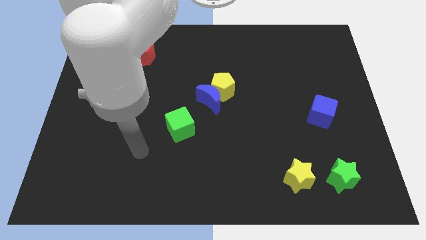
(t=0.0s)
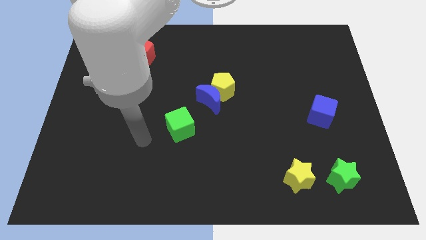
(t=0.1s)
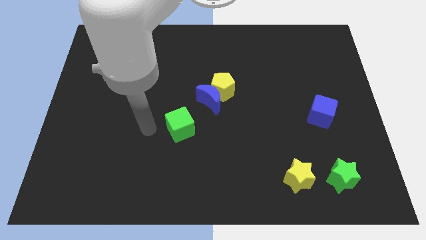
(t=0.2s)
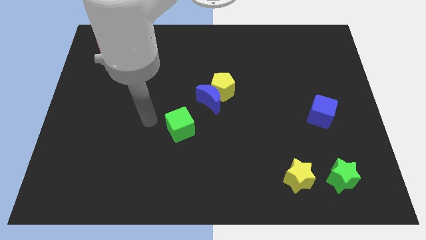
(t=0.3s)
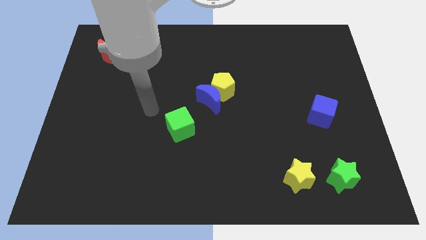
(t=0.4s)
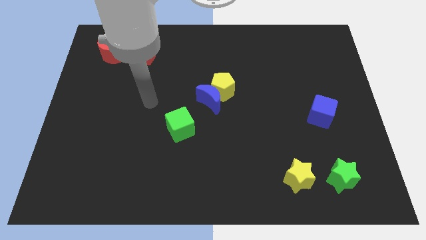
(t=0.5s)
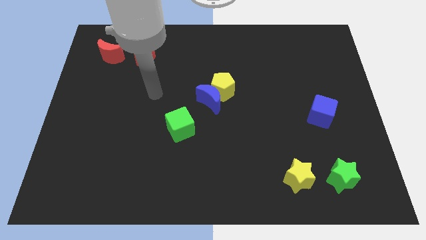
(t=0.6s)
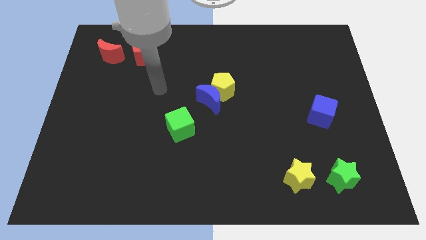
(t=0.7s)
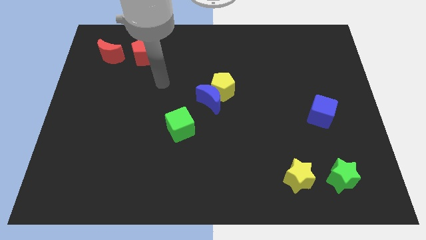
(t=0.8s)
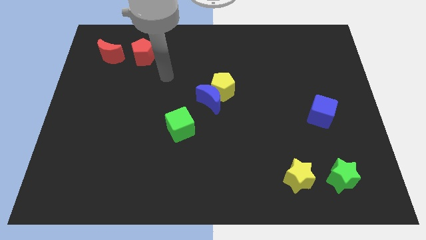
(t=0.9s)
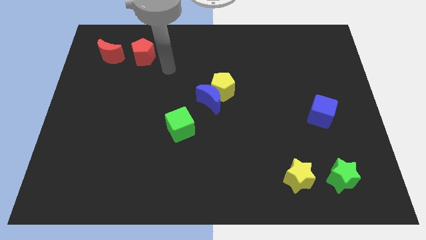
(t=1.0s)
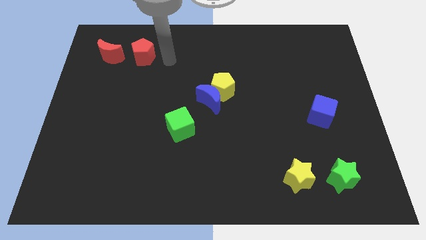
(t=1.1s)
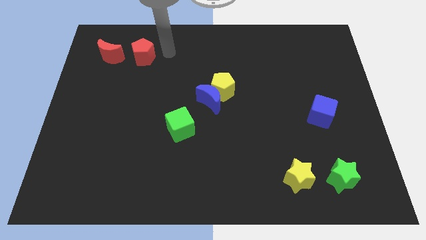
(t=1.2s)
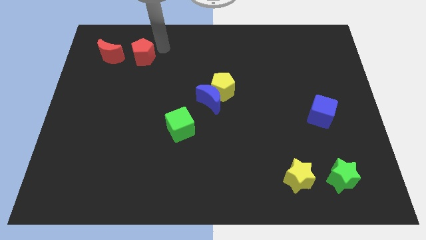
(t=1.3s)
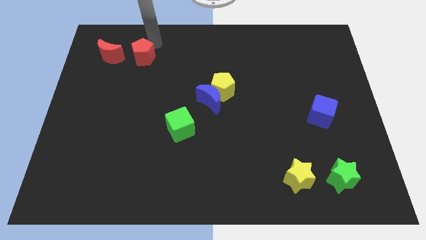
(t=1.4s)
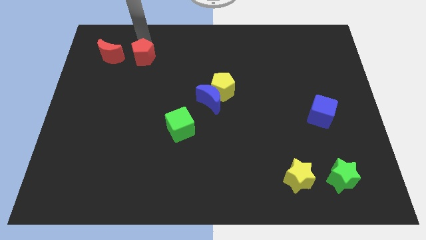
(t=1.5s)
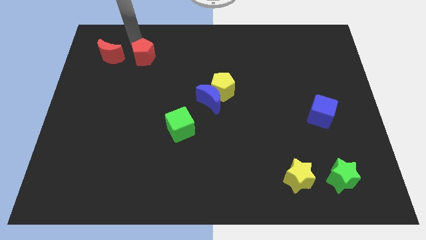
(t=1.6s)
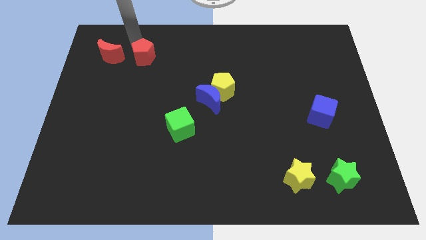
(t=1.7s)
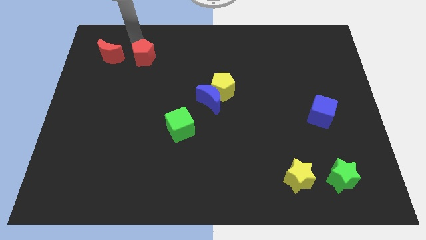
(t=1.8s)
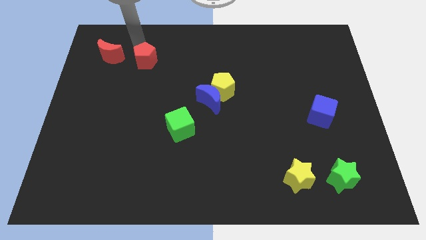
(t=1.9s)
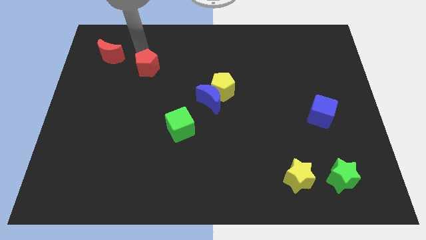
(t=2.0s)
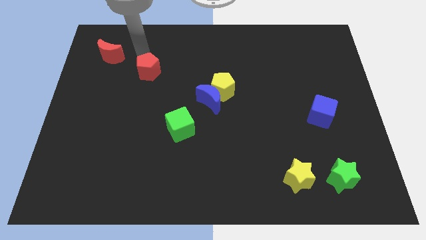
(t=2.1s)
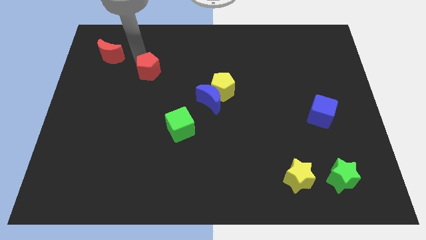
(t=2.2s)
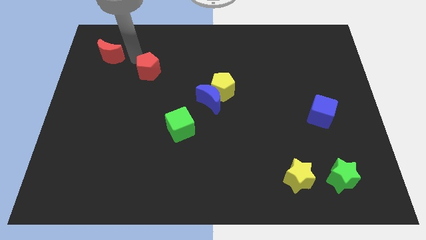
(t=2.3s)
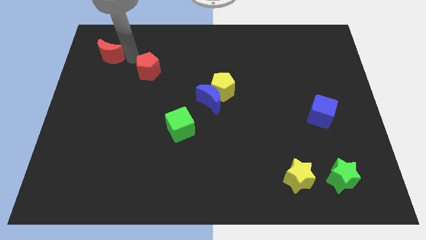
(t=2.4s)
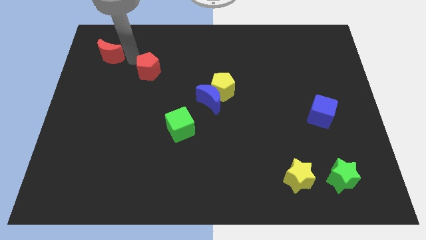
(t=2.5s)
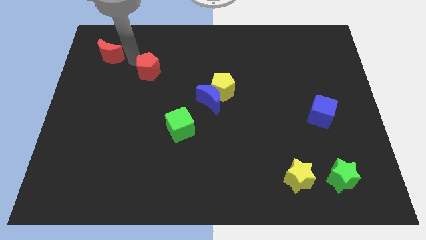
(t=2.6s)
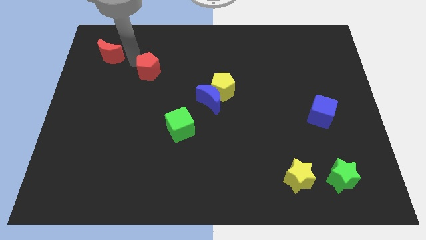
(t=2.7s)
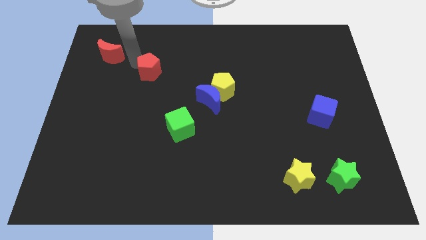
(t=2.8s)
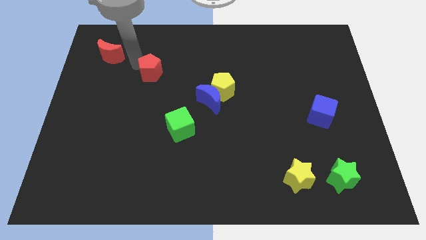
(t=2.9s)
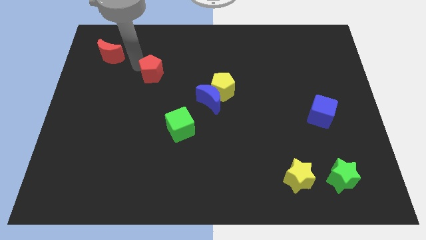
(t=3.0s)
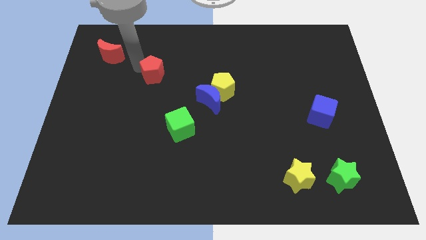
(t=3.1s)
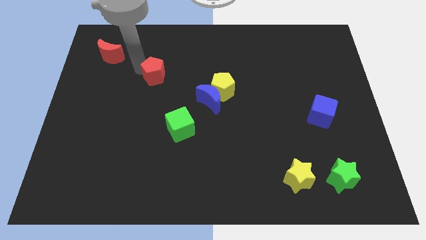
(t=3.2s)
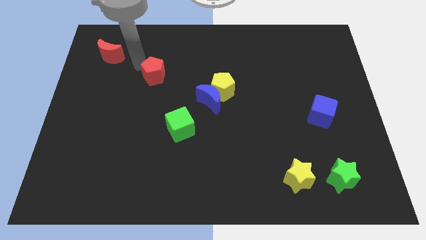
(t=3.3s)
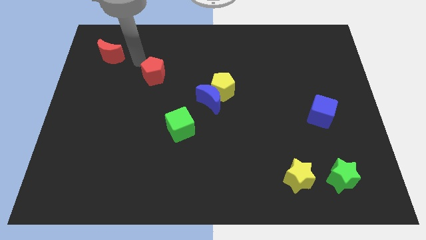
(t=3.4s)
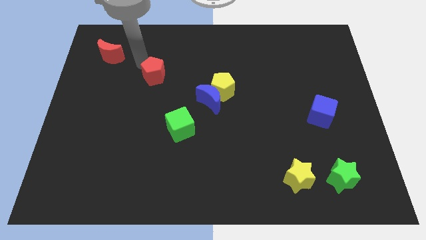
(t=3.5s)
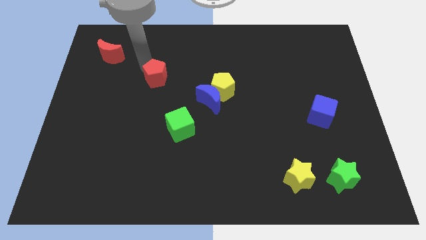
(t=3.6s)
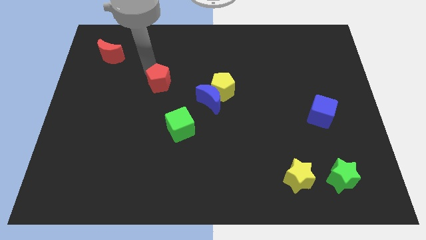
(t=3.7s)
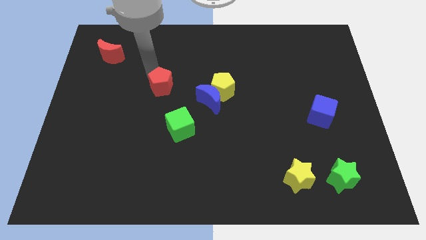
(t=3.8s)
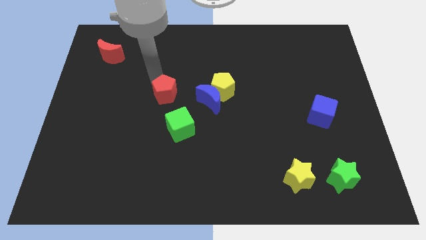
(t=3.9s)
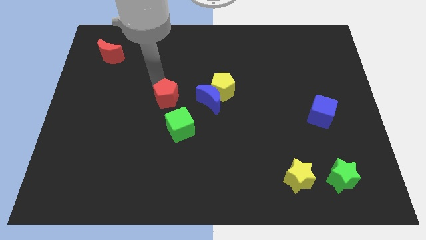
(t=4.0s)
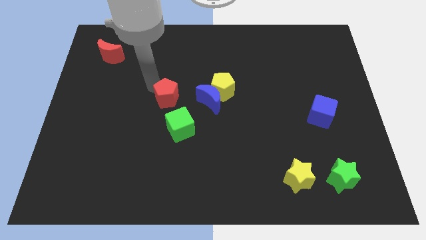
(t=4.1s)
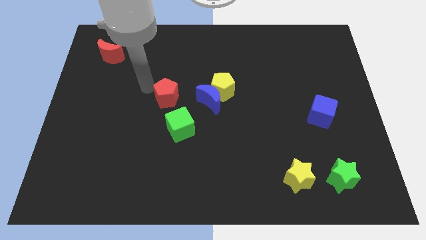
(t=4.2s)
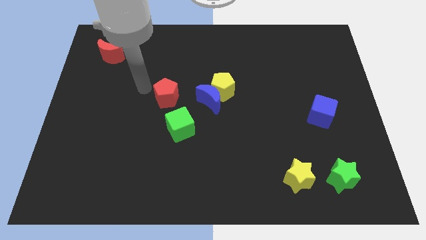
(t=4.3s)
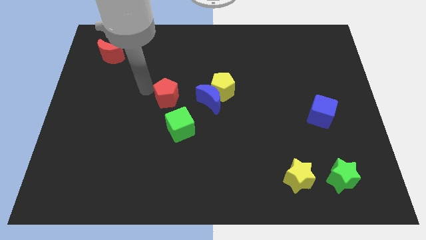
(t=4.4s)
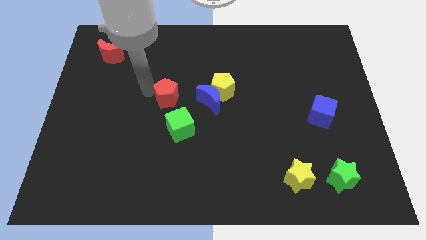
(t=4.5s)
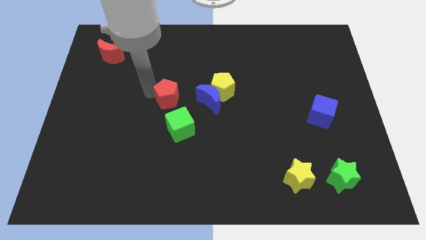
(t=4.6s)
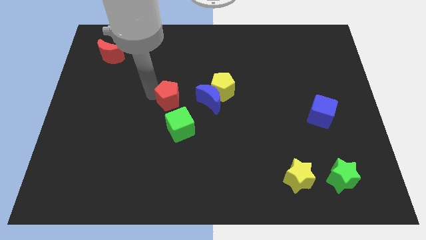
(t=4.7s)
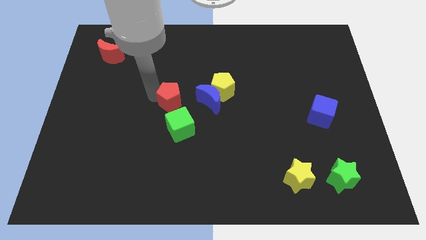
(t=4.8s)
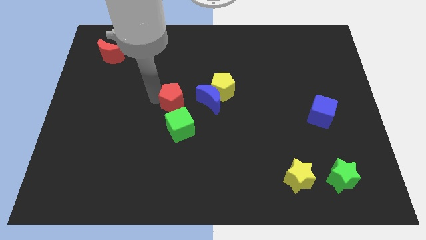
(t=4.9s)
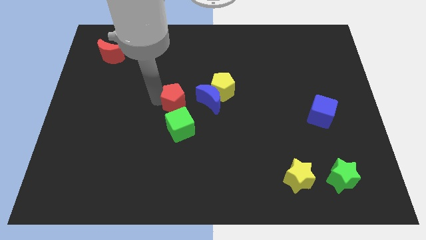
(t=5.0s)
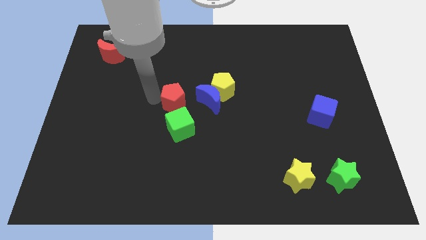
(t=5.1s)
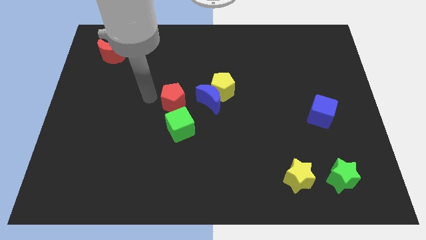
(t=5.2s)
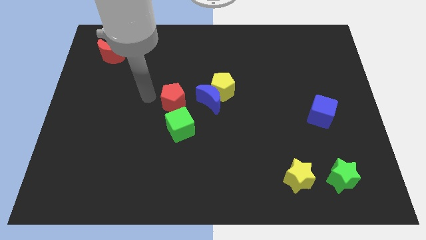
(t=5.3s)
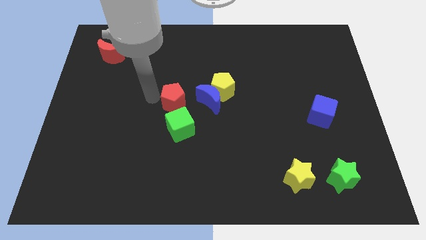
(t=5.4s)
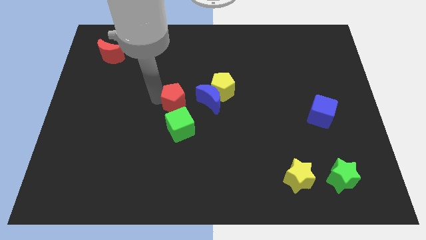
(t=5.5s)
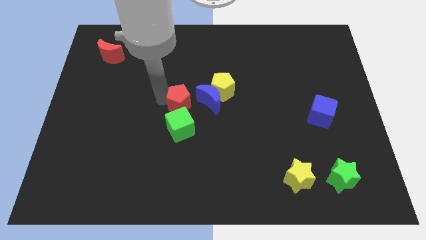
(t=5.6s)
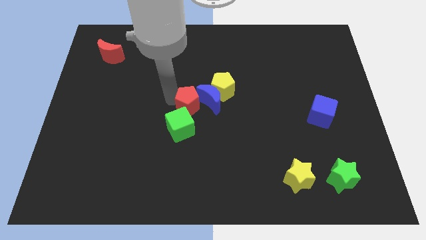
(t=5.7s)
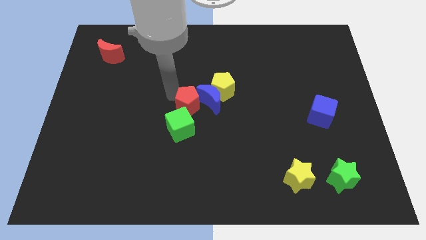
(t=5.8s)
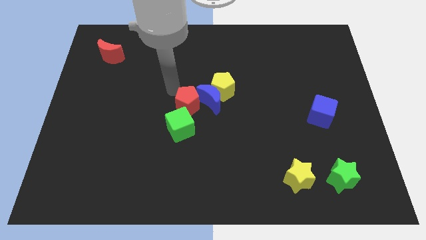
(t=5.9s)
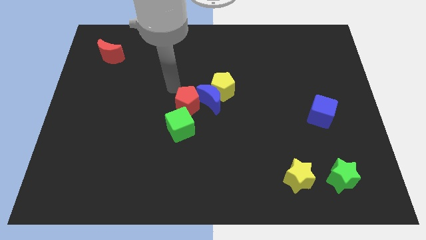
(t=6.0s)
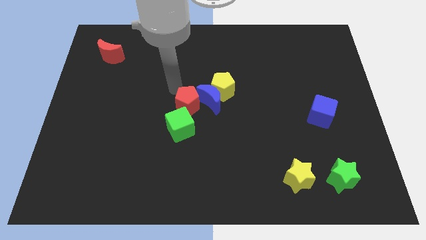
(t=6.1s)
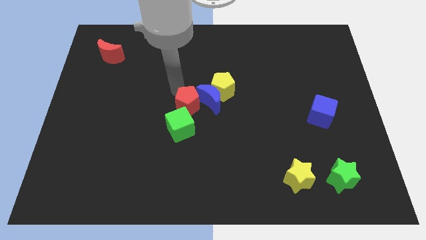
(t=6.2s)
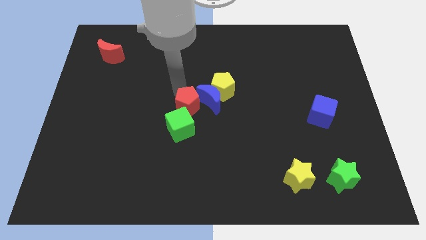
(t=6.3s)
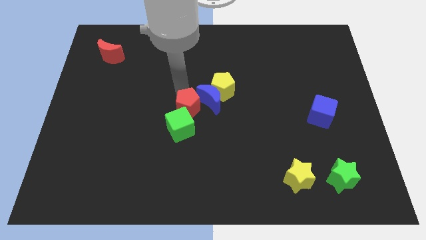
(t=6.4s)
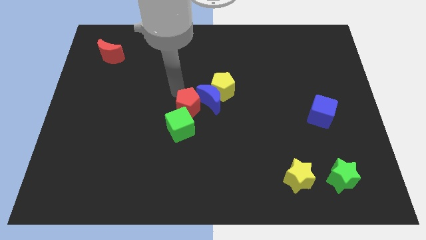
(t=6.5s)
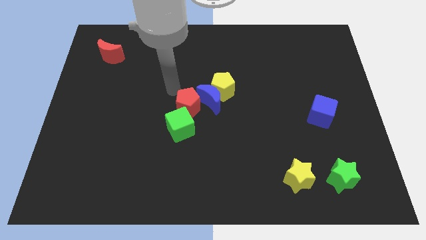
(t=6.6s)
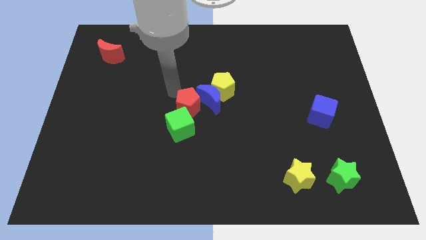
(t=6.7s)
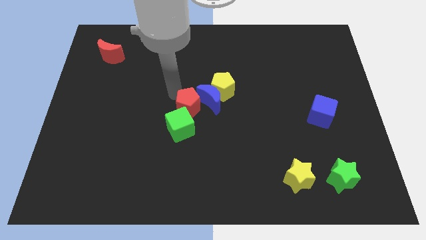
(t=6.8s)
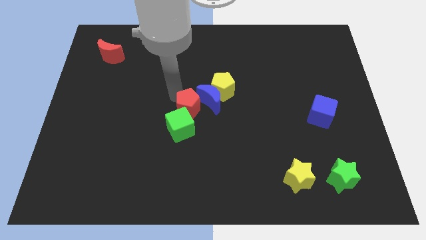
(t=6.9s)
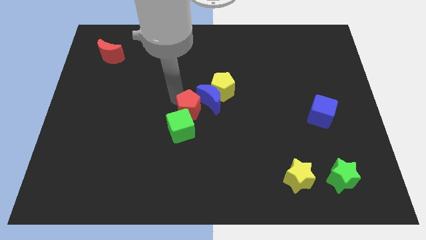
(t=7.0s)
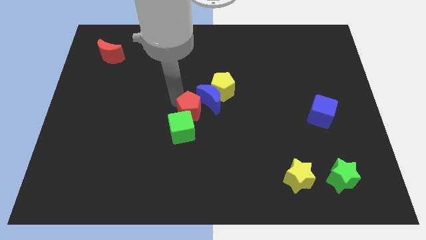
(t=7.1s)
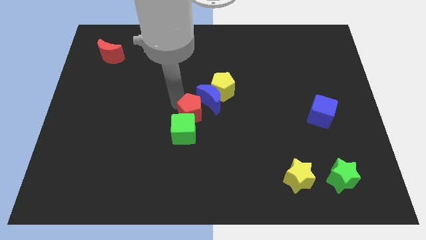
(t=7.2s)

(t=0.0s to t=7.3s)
put the red pentagon below the blue moon

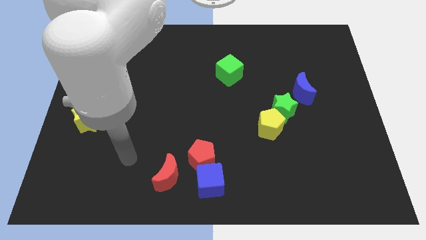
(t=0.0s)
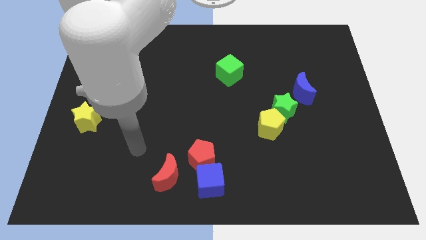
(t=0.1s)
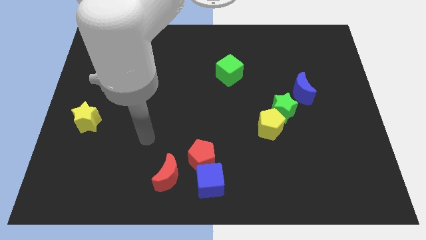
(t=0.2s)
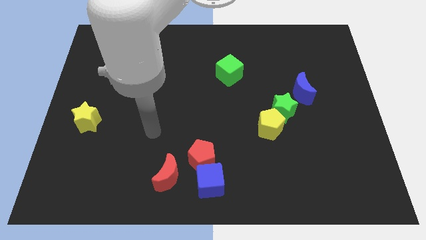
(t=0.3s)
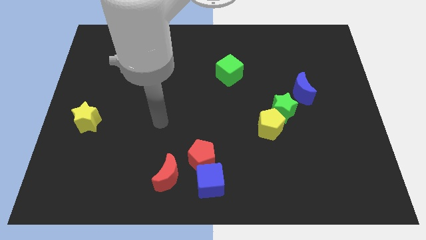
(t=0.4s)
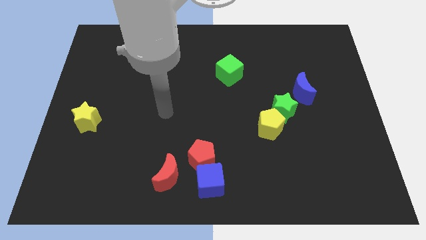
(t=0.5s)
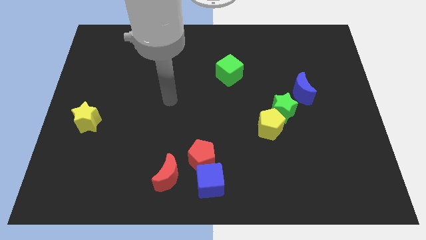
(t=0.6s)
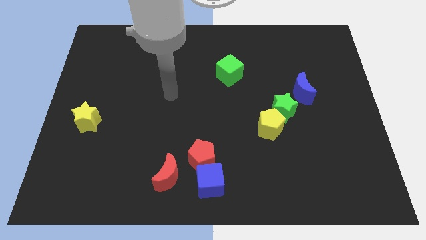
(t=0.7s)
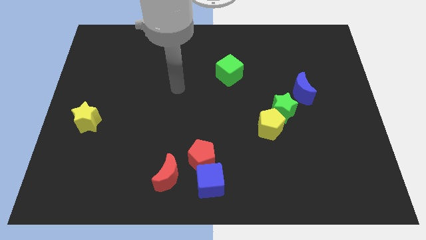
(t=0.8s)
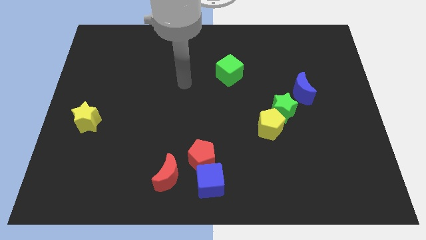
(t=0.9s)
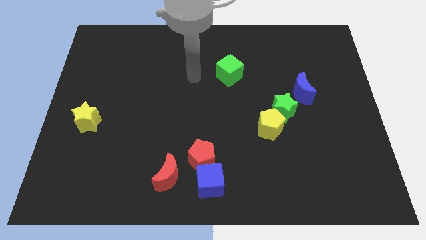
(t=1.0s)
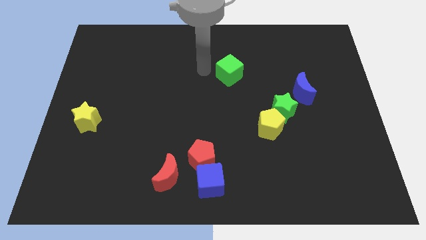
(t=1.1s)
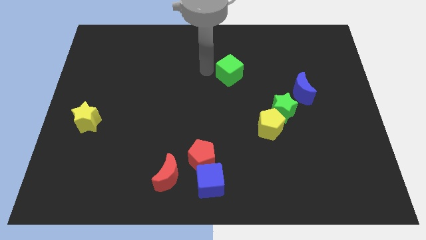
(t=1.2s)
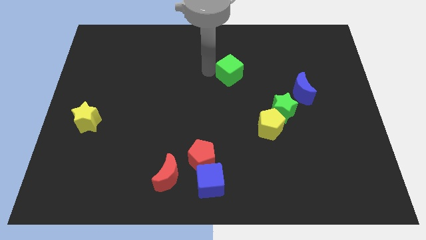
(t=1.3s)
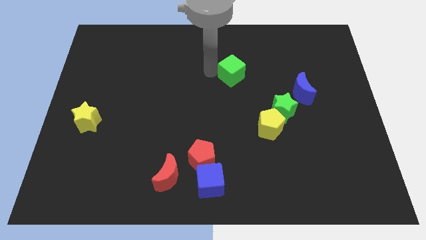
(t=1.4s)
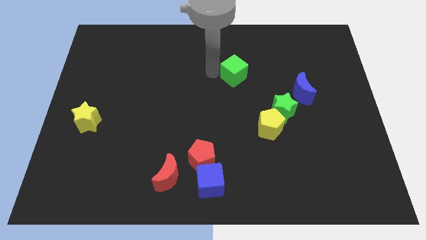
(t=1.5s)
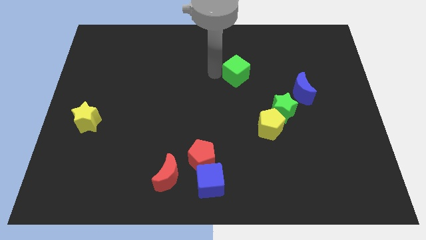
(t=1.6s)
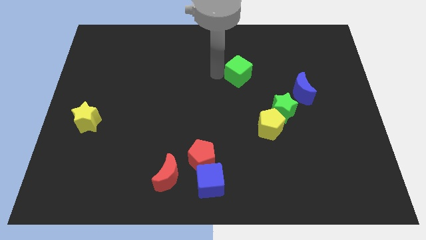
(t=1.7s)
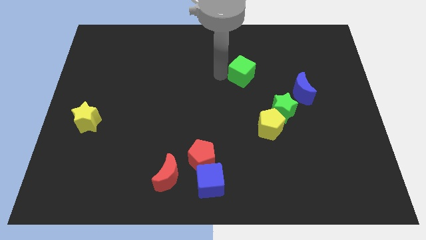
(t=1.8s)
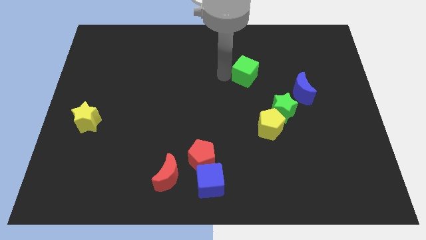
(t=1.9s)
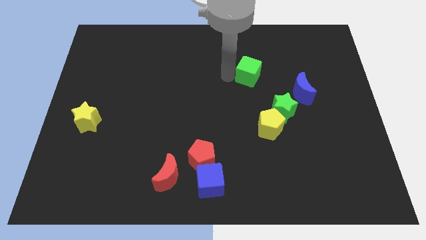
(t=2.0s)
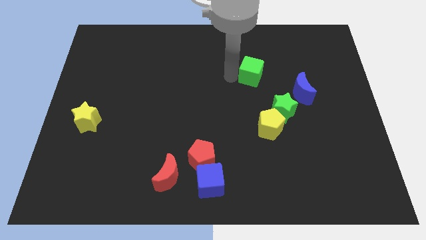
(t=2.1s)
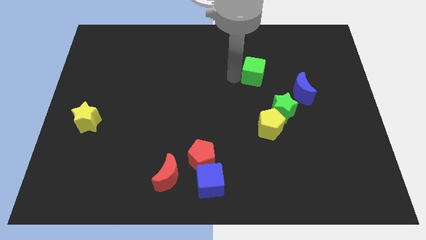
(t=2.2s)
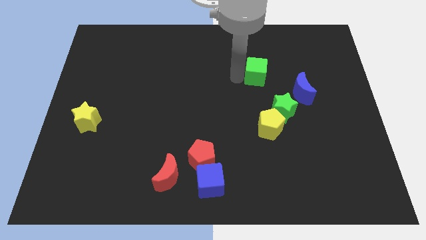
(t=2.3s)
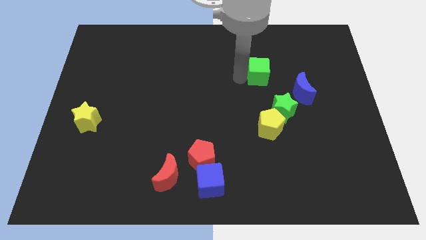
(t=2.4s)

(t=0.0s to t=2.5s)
move the green cube to the top of the green star
